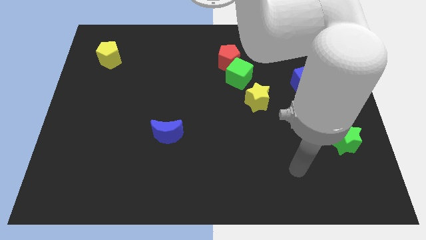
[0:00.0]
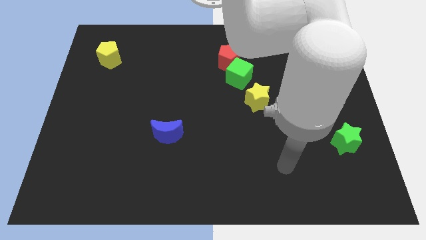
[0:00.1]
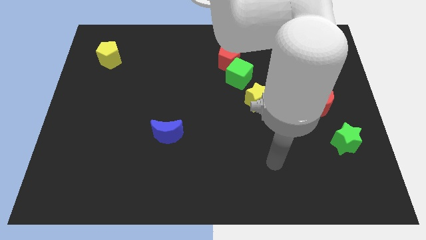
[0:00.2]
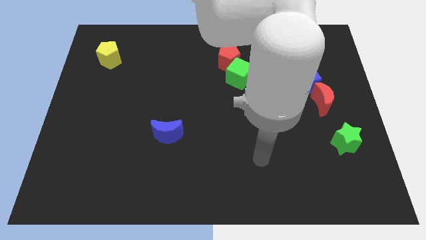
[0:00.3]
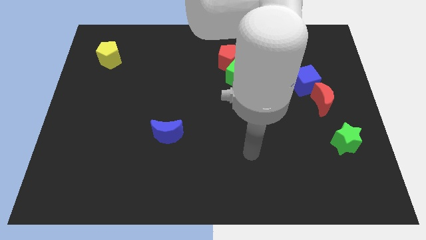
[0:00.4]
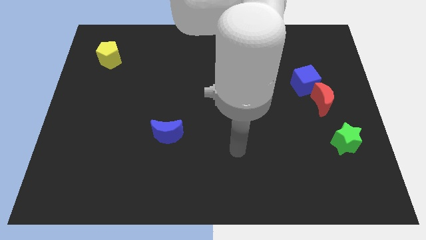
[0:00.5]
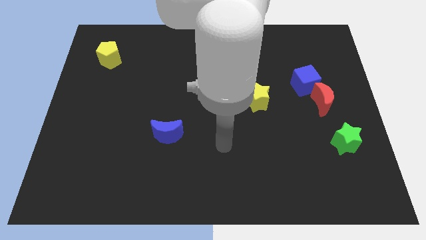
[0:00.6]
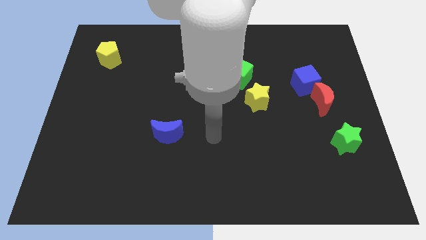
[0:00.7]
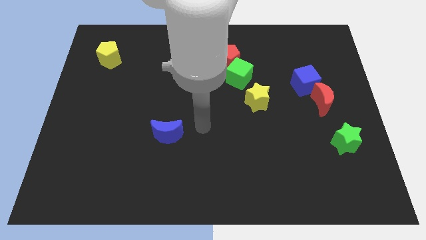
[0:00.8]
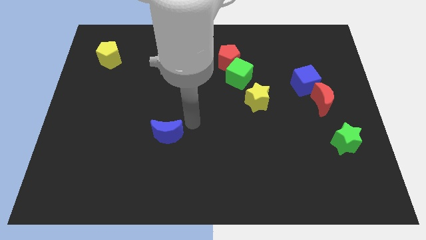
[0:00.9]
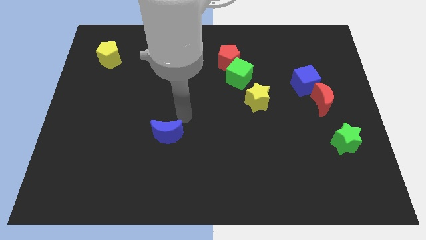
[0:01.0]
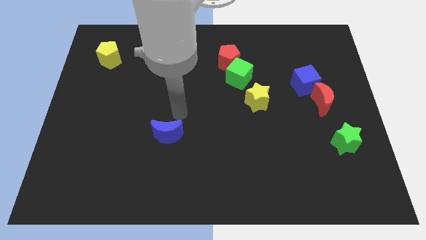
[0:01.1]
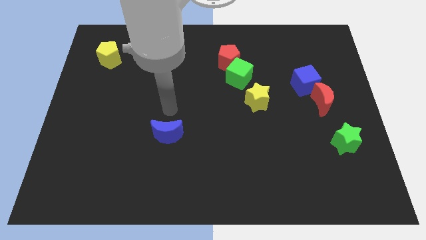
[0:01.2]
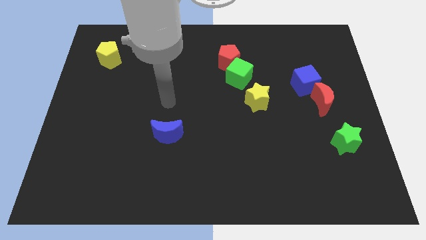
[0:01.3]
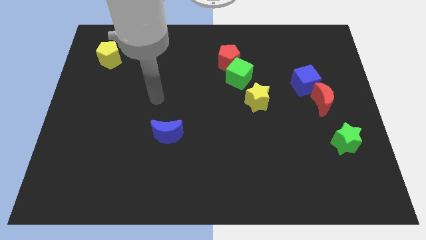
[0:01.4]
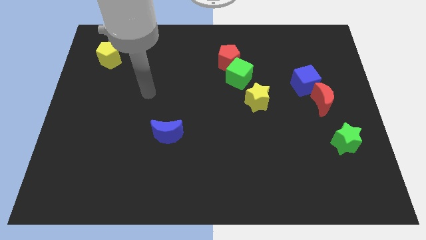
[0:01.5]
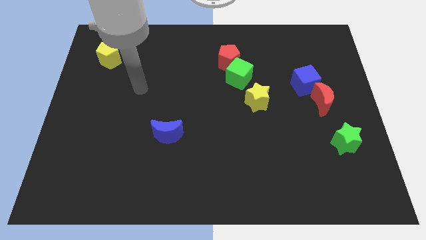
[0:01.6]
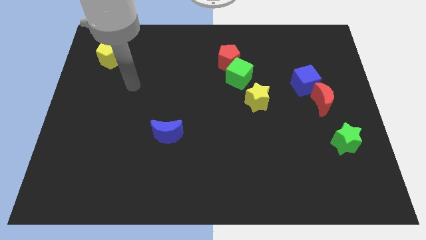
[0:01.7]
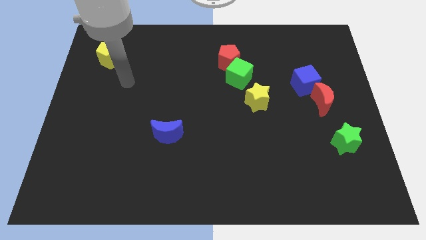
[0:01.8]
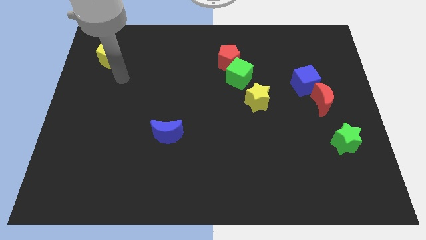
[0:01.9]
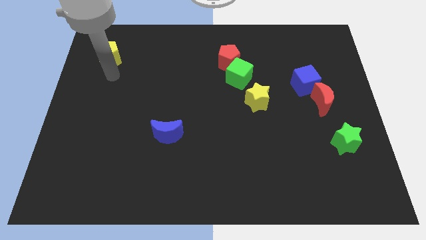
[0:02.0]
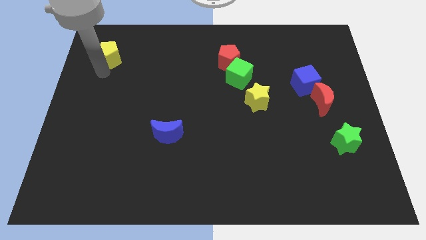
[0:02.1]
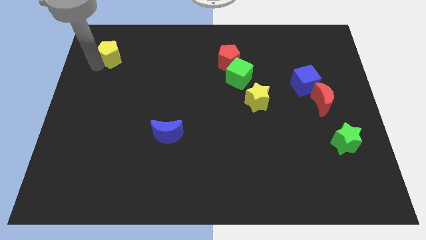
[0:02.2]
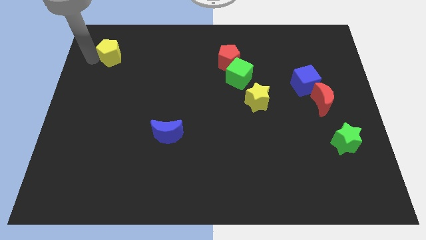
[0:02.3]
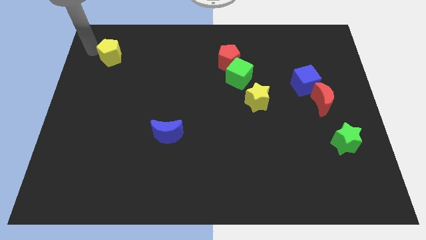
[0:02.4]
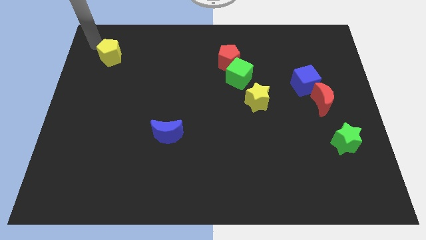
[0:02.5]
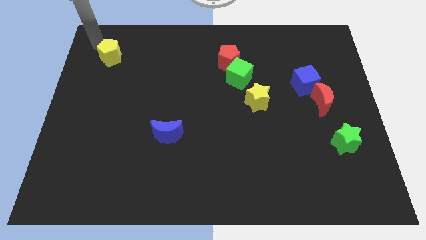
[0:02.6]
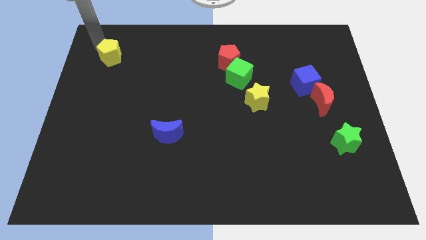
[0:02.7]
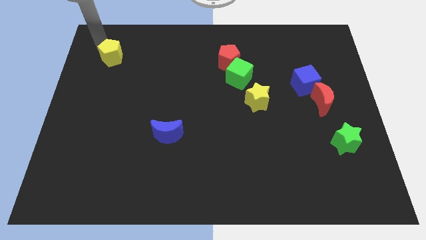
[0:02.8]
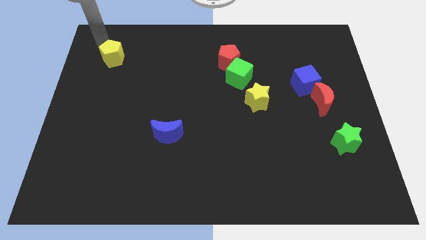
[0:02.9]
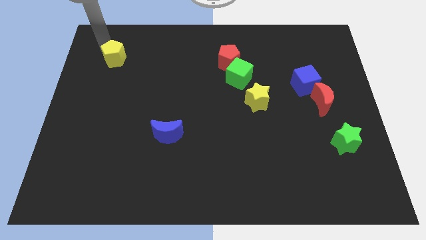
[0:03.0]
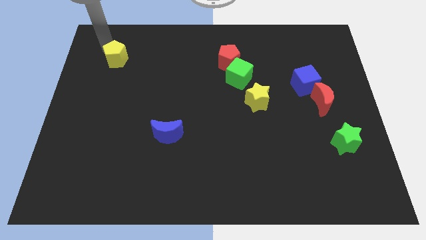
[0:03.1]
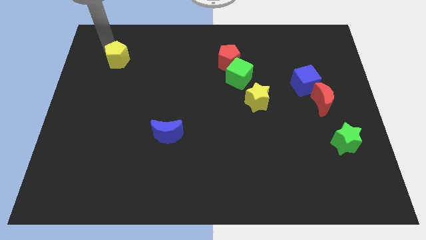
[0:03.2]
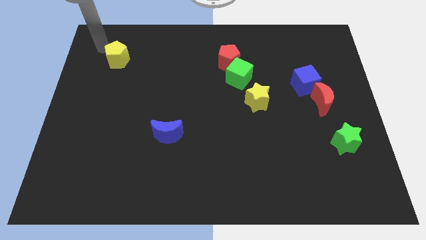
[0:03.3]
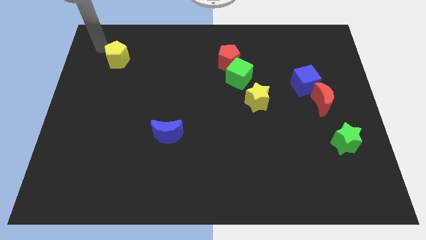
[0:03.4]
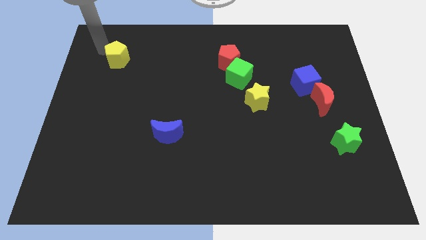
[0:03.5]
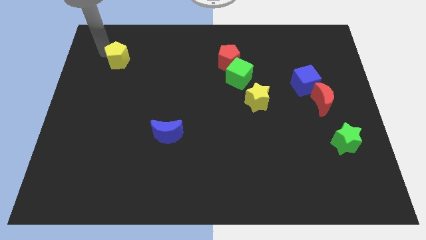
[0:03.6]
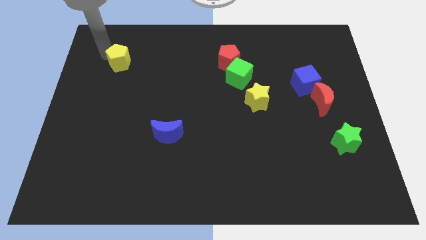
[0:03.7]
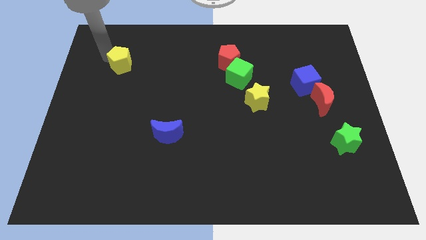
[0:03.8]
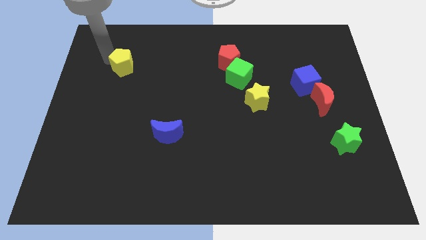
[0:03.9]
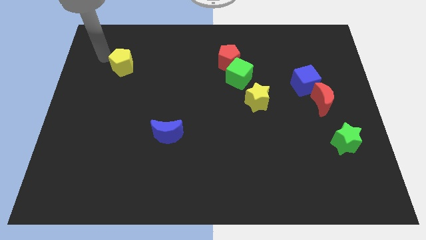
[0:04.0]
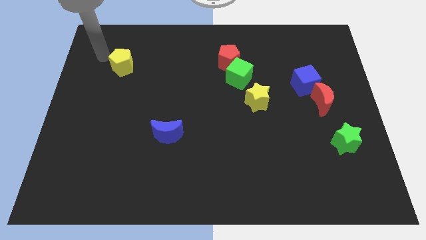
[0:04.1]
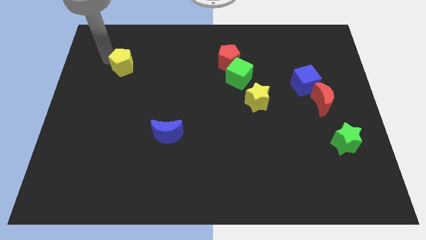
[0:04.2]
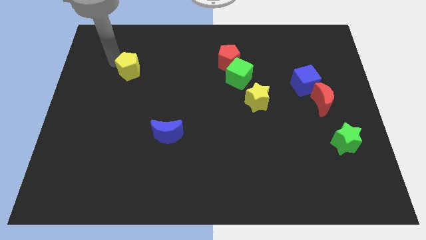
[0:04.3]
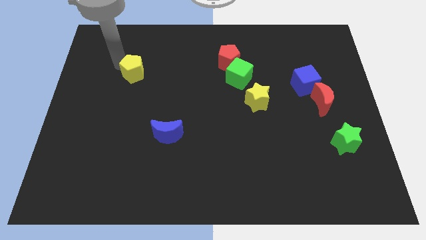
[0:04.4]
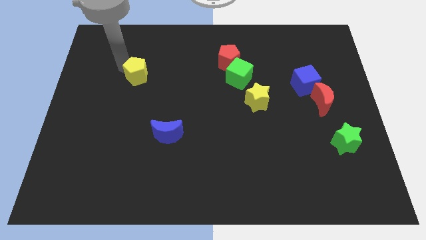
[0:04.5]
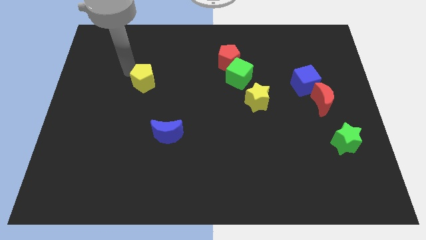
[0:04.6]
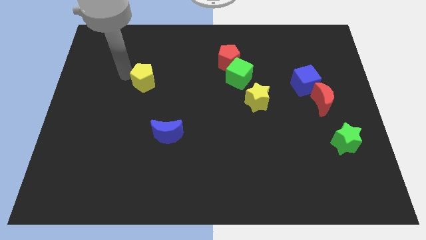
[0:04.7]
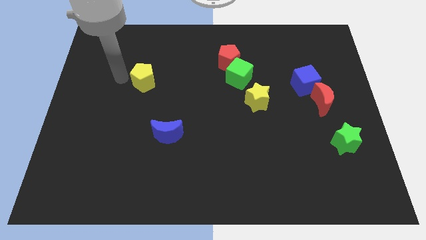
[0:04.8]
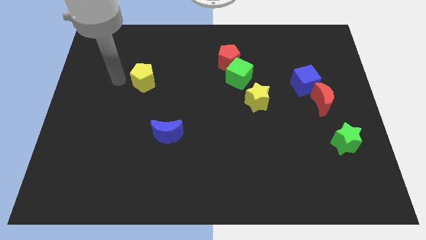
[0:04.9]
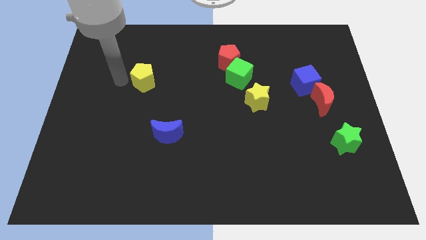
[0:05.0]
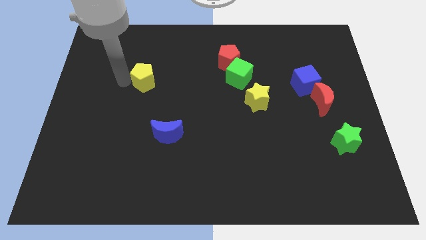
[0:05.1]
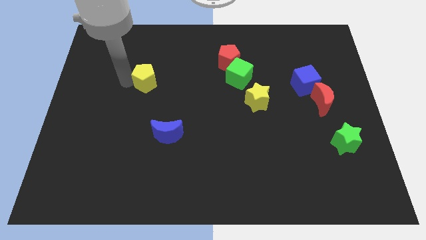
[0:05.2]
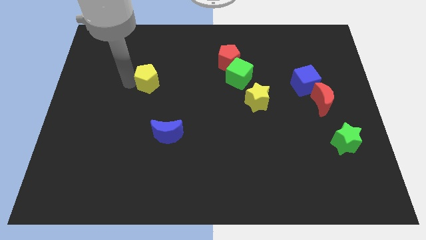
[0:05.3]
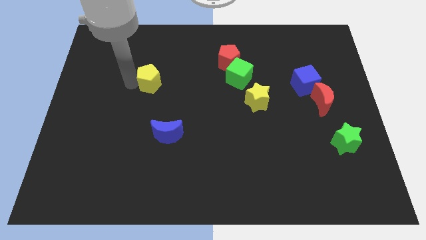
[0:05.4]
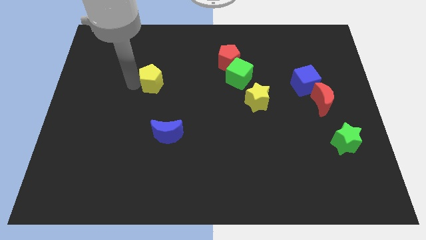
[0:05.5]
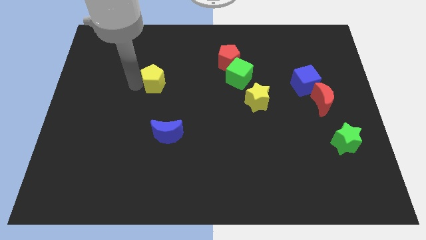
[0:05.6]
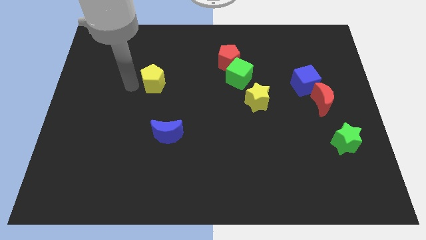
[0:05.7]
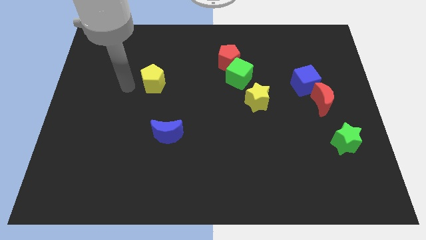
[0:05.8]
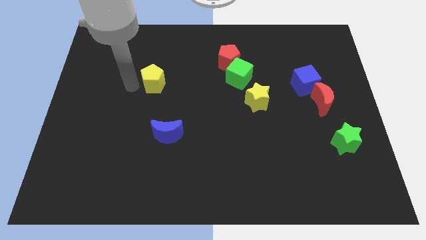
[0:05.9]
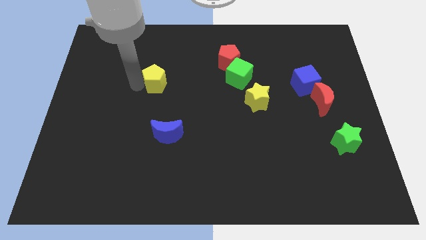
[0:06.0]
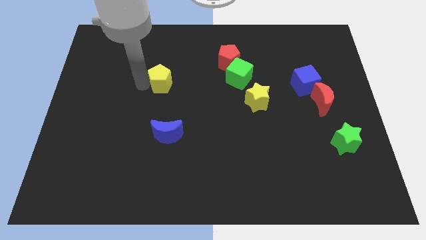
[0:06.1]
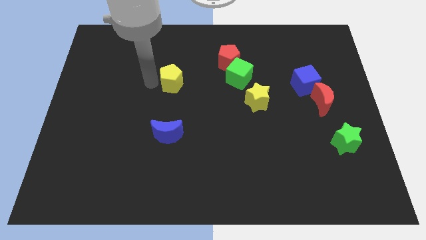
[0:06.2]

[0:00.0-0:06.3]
slide the yellow pentagon to the center

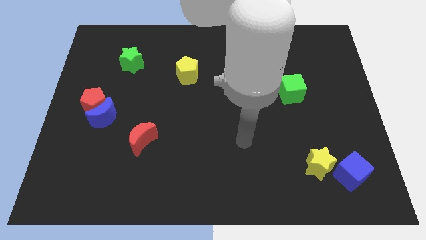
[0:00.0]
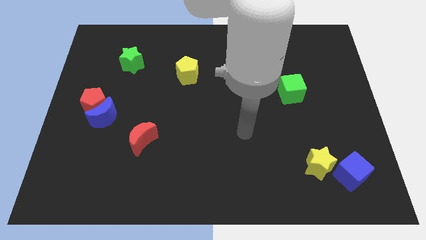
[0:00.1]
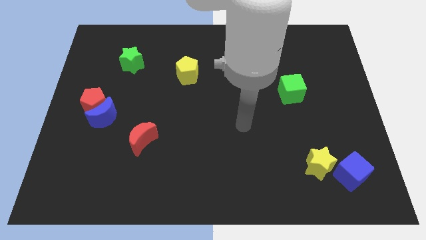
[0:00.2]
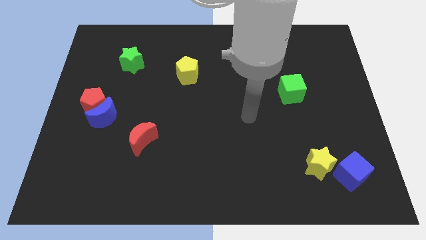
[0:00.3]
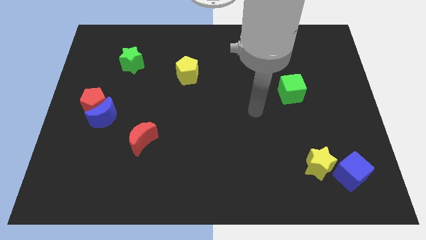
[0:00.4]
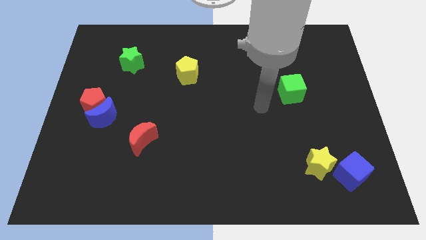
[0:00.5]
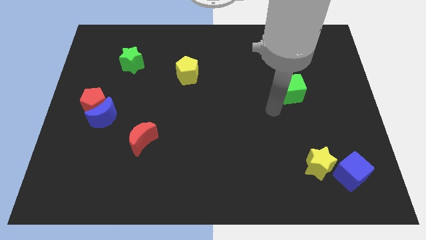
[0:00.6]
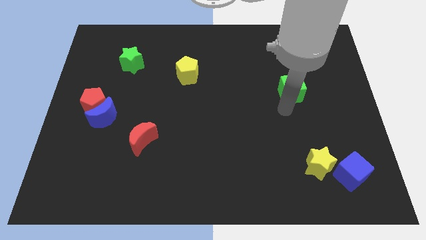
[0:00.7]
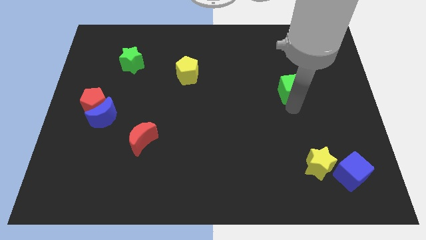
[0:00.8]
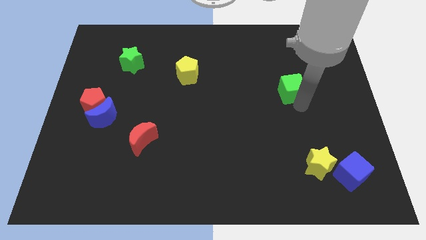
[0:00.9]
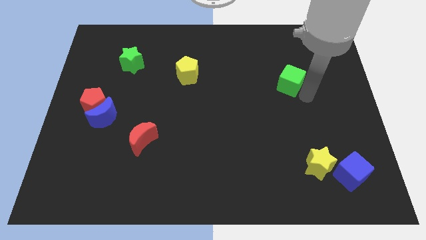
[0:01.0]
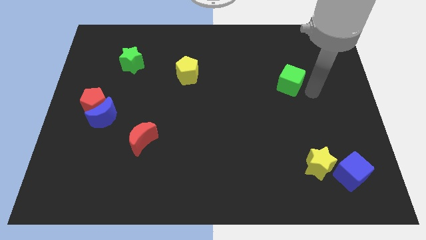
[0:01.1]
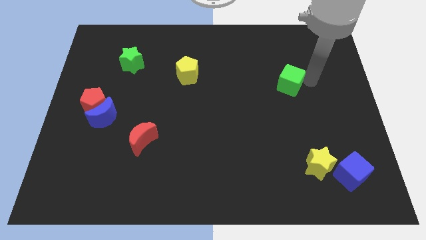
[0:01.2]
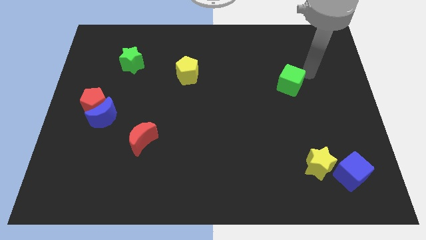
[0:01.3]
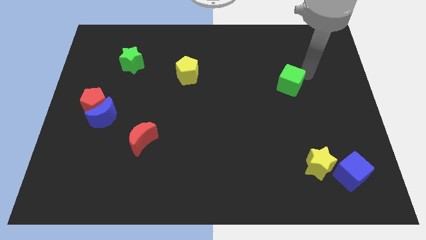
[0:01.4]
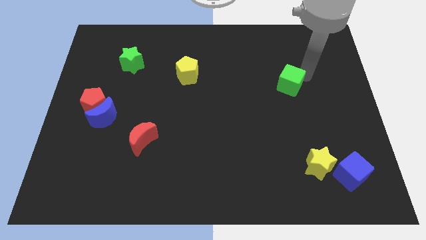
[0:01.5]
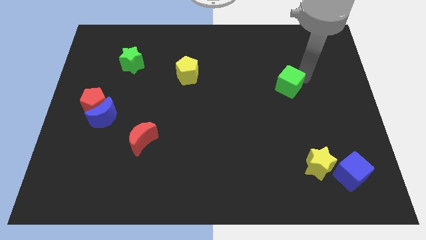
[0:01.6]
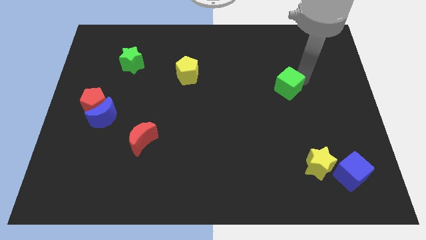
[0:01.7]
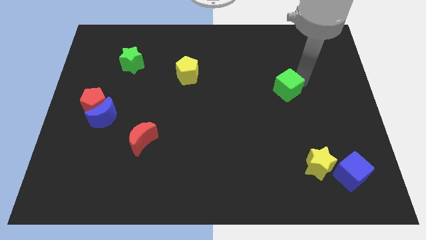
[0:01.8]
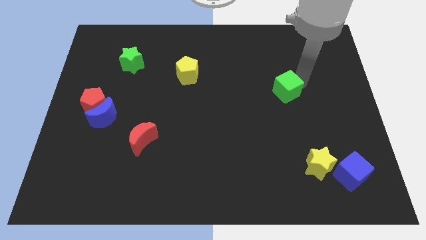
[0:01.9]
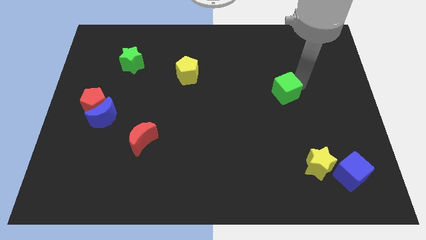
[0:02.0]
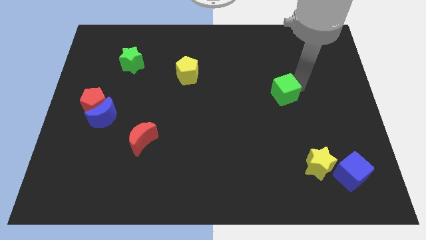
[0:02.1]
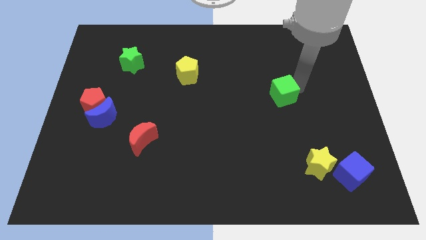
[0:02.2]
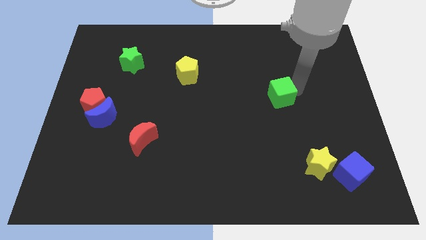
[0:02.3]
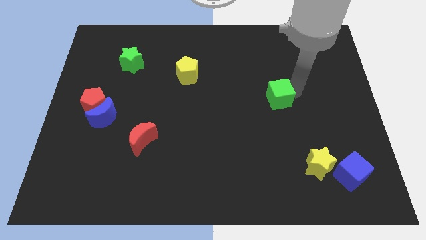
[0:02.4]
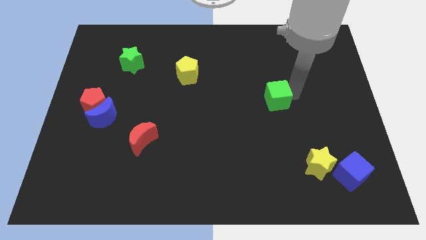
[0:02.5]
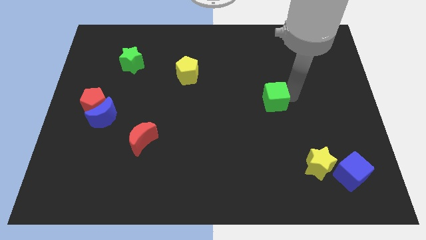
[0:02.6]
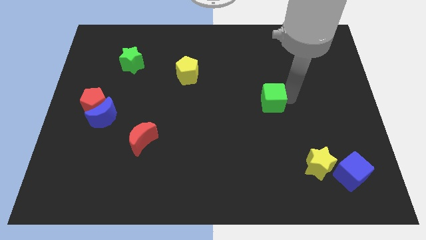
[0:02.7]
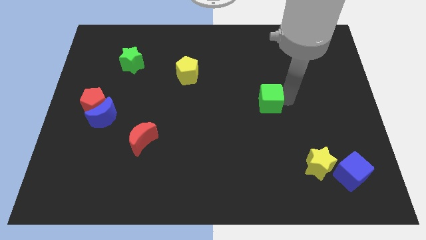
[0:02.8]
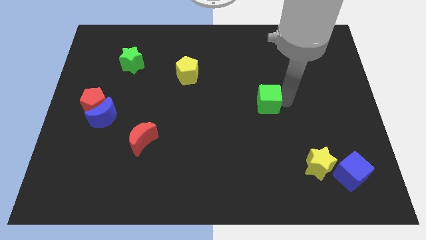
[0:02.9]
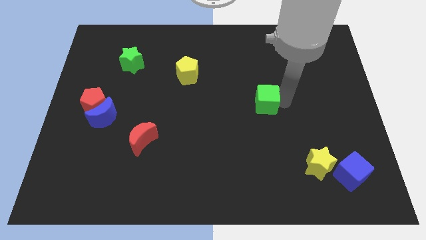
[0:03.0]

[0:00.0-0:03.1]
move the green cube to the middle of the board
